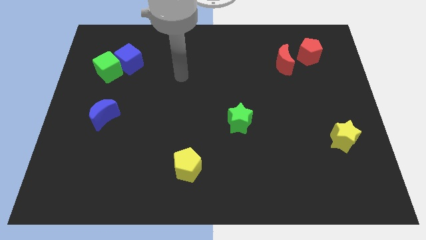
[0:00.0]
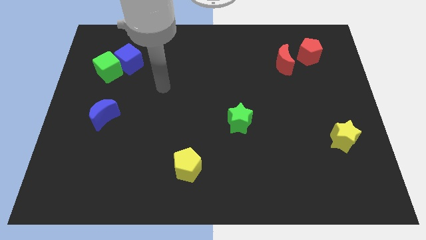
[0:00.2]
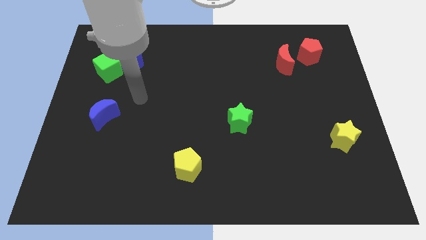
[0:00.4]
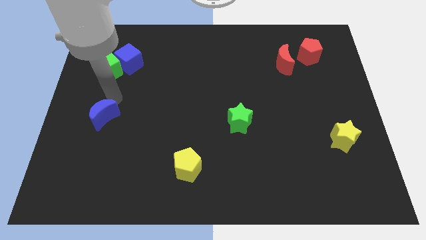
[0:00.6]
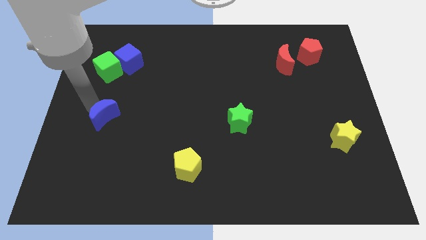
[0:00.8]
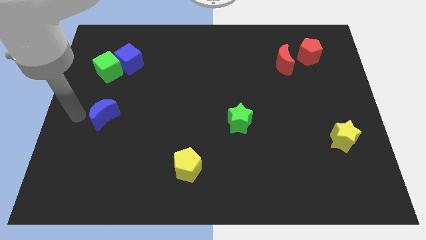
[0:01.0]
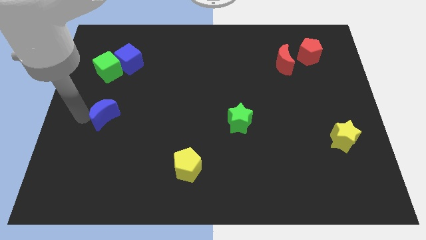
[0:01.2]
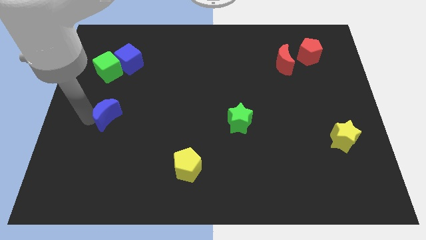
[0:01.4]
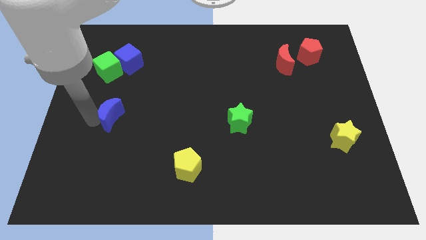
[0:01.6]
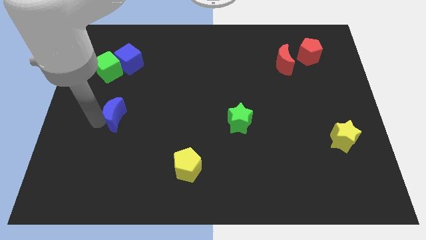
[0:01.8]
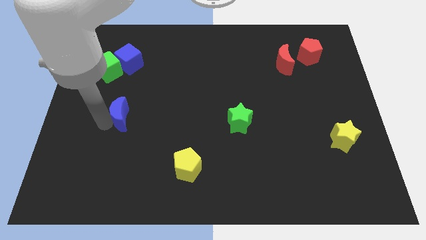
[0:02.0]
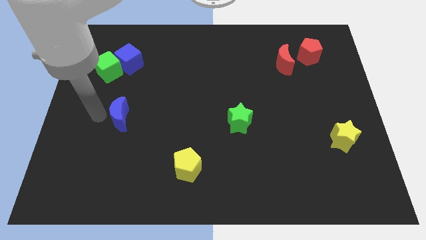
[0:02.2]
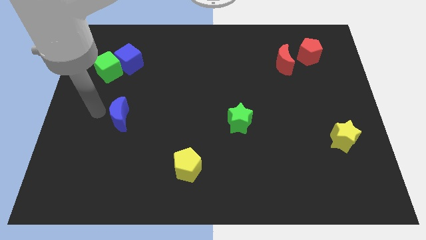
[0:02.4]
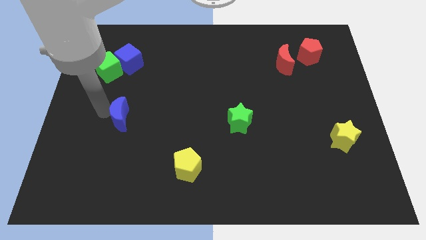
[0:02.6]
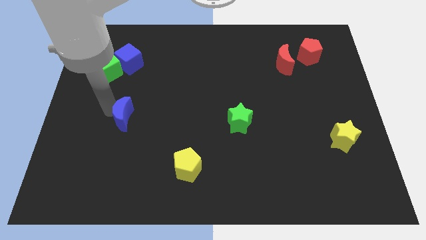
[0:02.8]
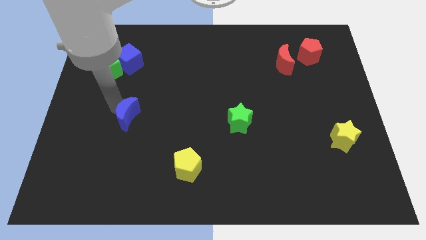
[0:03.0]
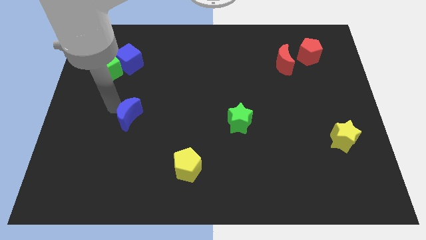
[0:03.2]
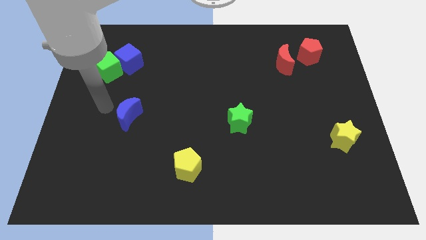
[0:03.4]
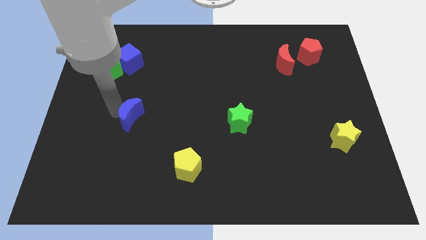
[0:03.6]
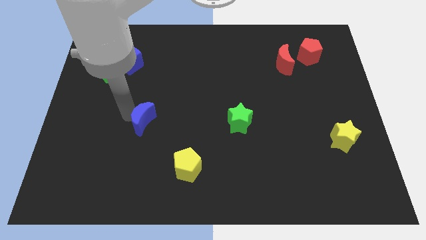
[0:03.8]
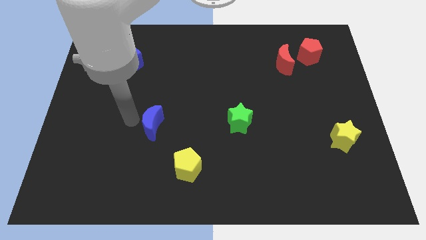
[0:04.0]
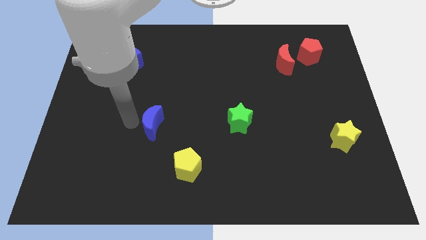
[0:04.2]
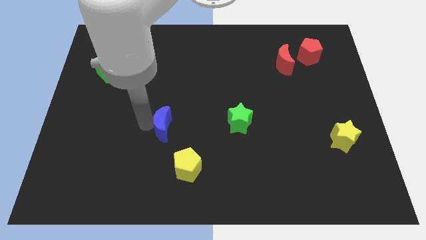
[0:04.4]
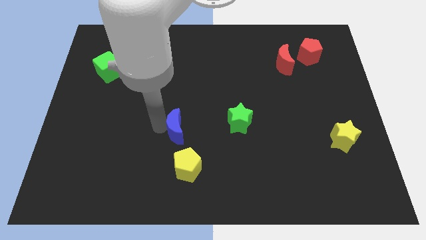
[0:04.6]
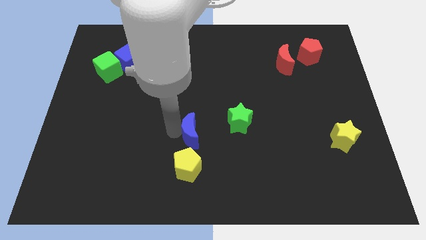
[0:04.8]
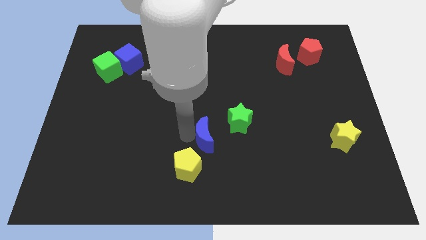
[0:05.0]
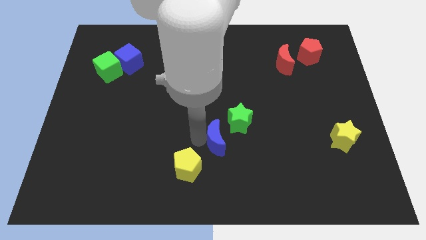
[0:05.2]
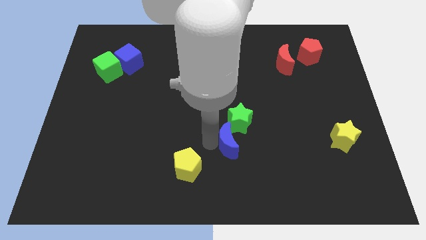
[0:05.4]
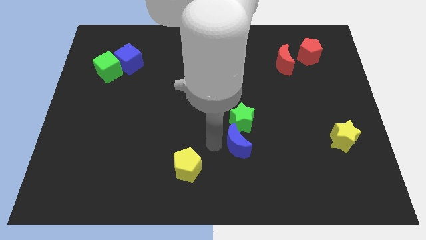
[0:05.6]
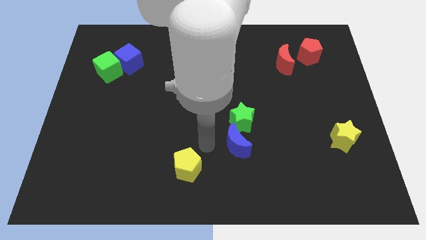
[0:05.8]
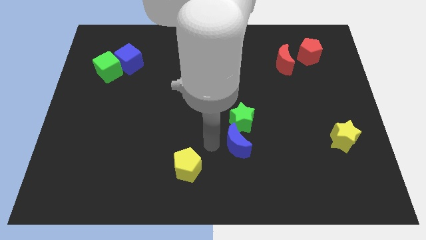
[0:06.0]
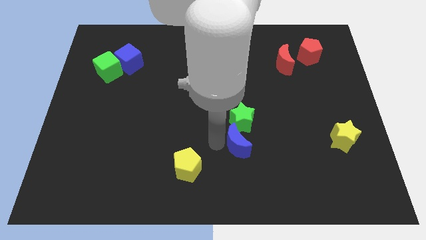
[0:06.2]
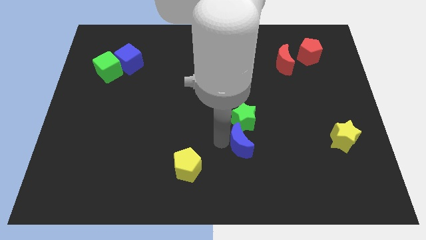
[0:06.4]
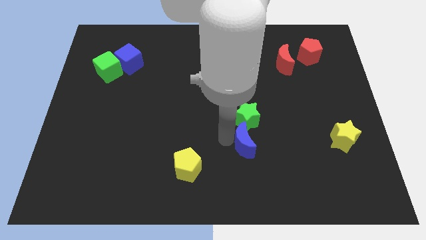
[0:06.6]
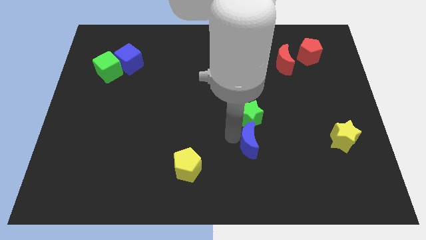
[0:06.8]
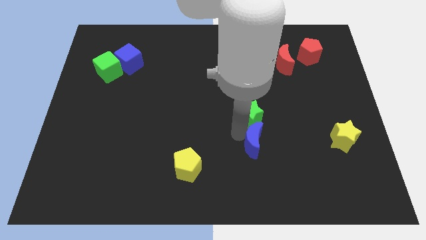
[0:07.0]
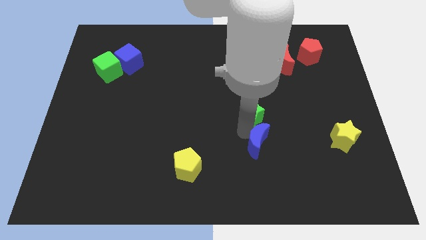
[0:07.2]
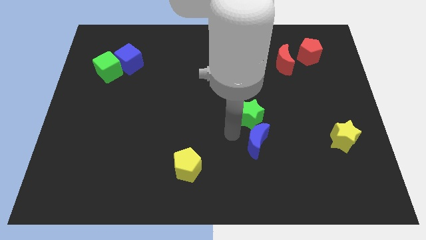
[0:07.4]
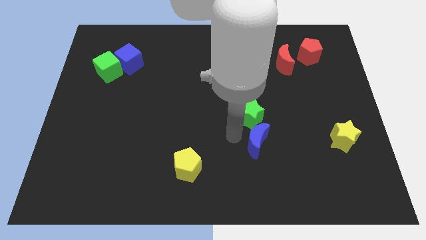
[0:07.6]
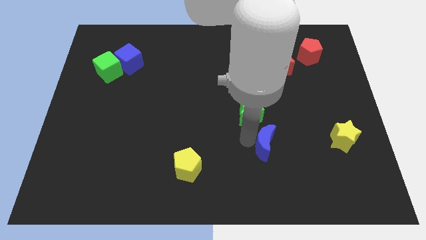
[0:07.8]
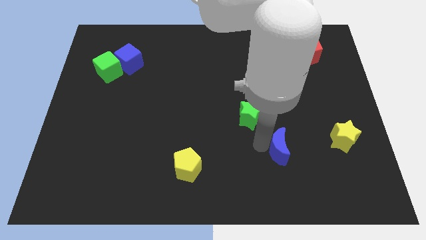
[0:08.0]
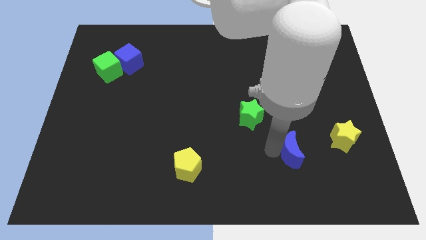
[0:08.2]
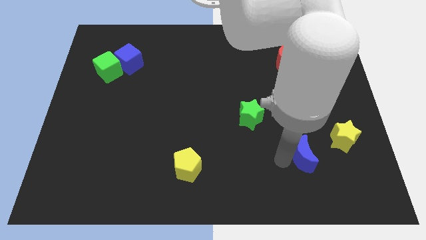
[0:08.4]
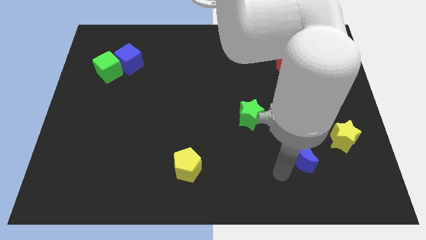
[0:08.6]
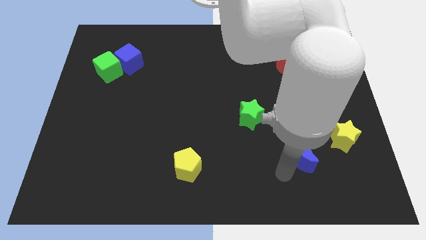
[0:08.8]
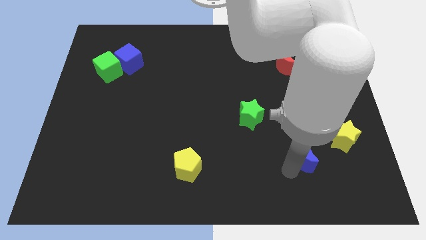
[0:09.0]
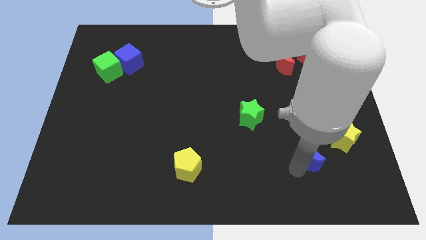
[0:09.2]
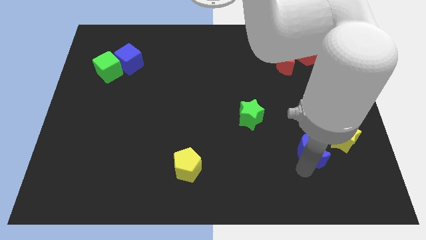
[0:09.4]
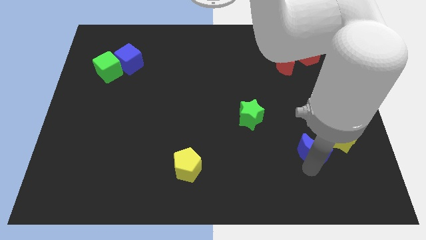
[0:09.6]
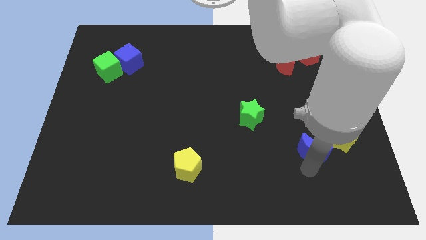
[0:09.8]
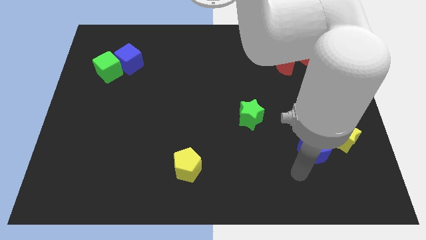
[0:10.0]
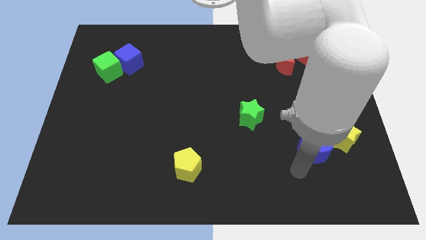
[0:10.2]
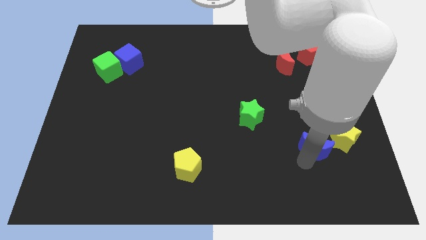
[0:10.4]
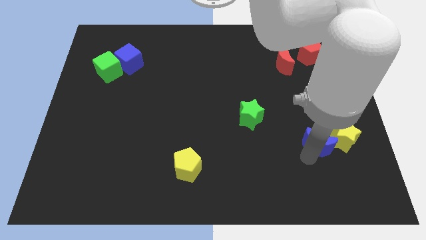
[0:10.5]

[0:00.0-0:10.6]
push the blue moon to the yellow star

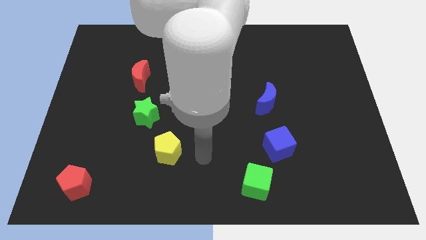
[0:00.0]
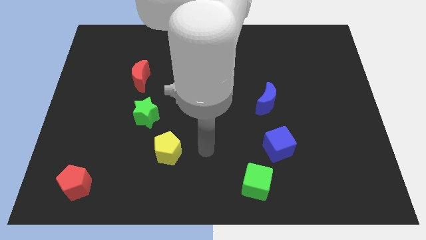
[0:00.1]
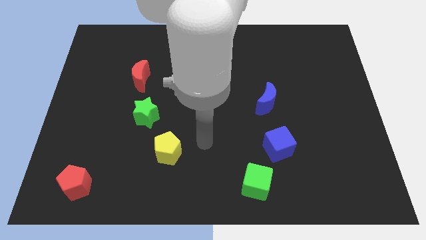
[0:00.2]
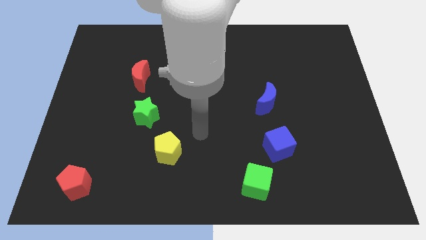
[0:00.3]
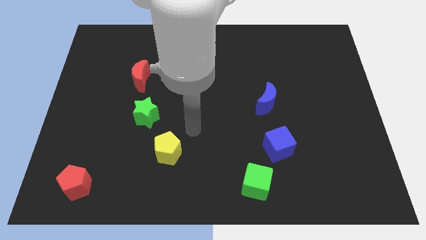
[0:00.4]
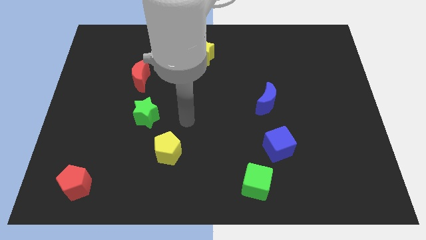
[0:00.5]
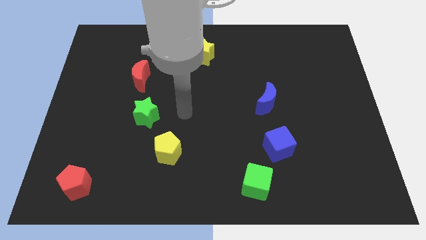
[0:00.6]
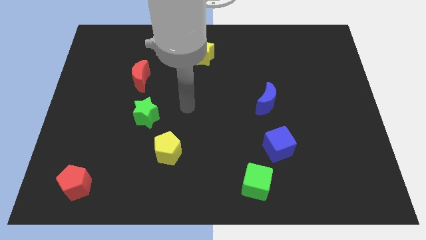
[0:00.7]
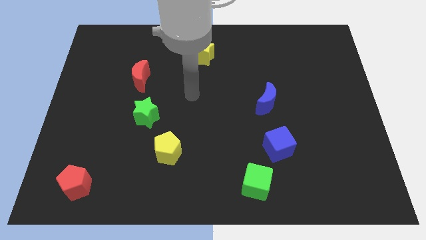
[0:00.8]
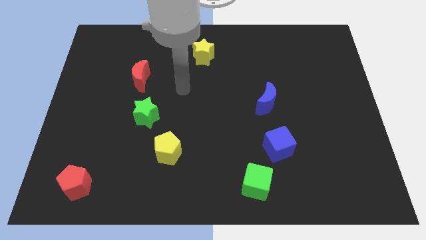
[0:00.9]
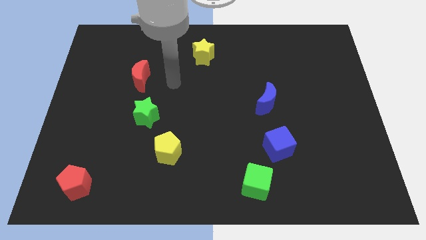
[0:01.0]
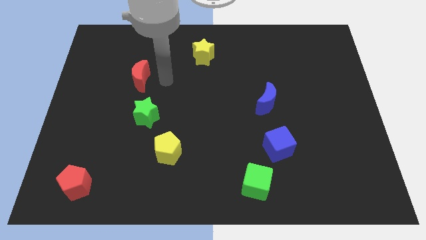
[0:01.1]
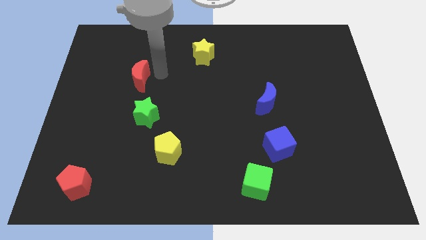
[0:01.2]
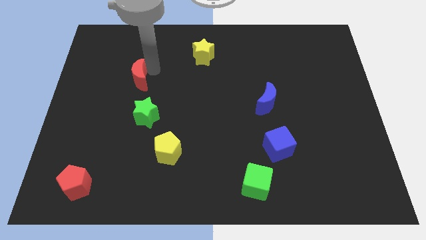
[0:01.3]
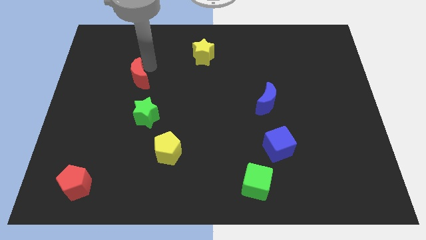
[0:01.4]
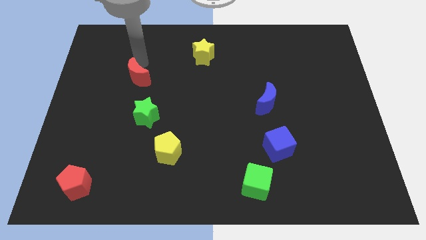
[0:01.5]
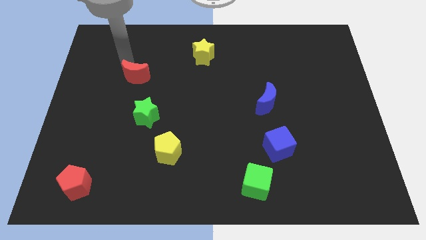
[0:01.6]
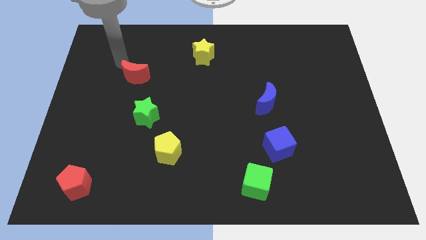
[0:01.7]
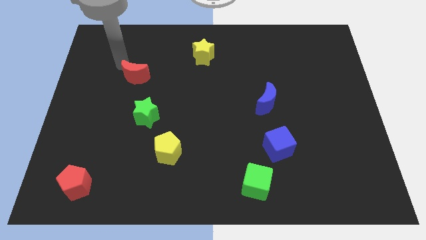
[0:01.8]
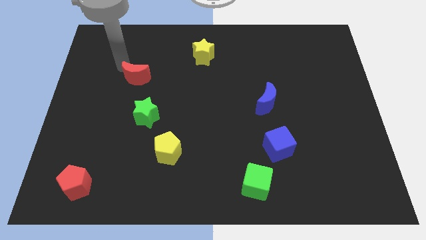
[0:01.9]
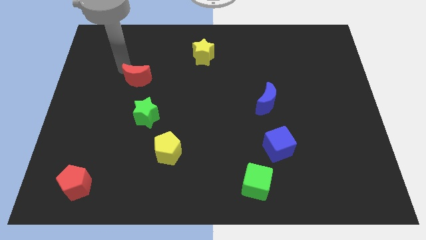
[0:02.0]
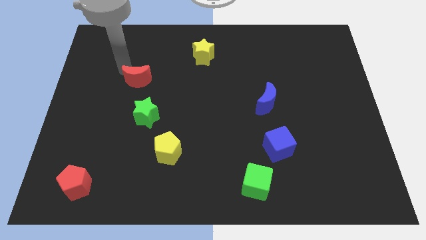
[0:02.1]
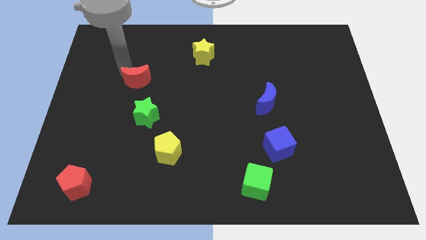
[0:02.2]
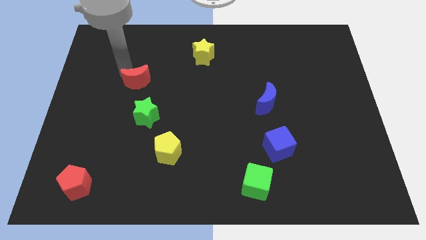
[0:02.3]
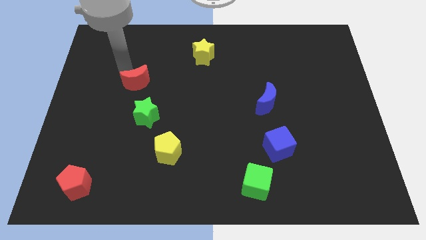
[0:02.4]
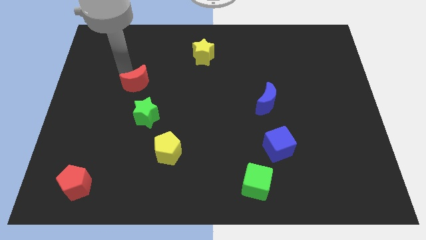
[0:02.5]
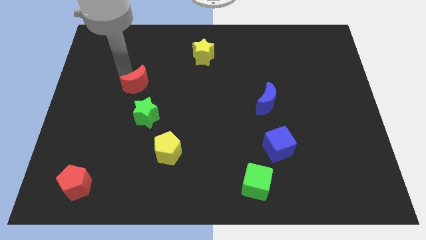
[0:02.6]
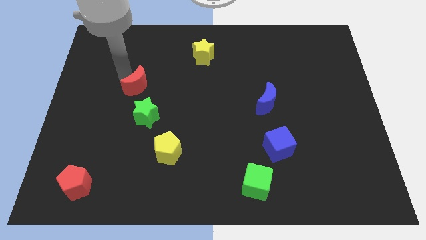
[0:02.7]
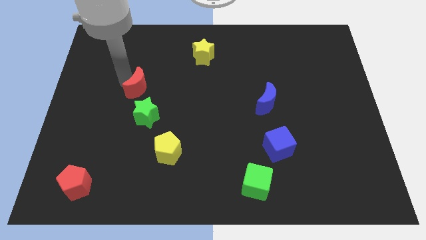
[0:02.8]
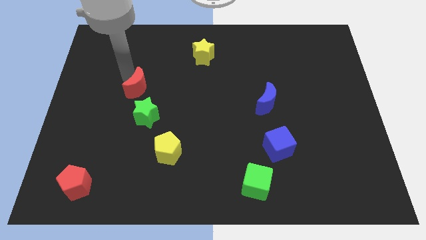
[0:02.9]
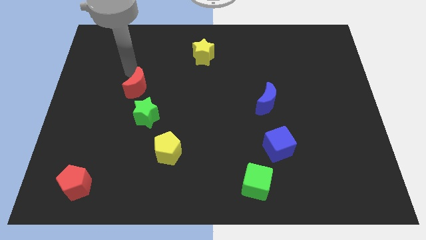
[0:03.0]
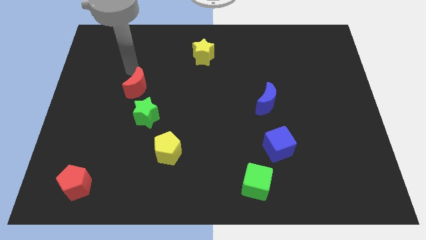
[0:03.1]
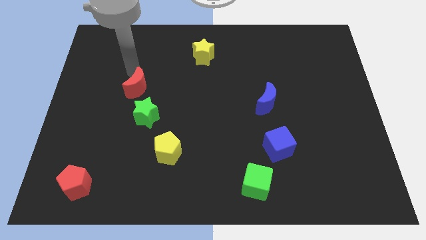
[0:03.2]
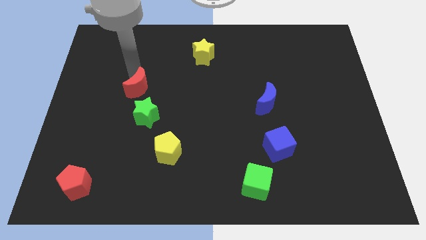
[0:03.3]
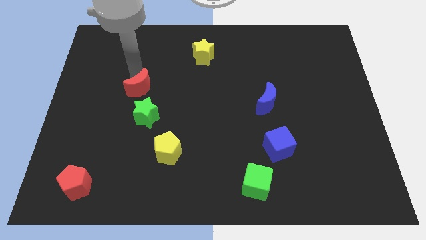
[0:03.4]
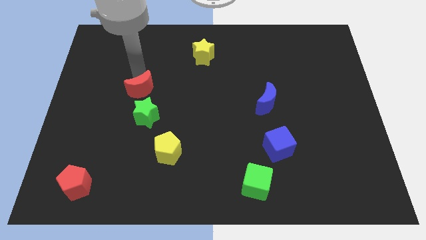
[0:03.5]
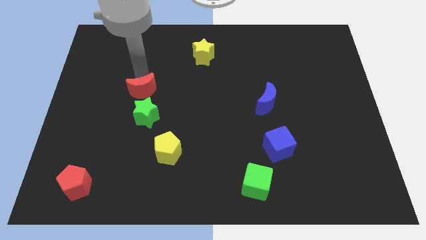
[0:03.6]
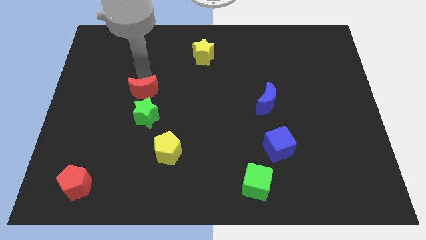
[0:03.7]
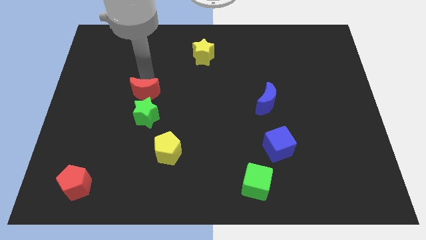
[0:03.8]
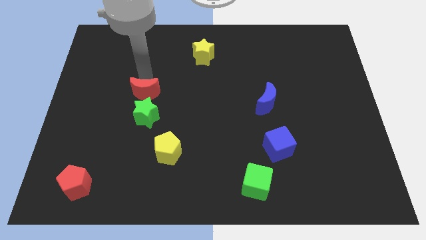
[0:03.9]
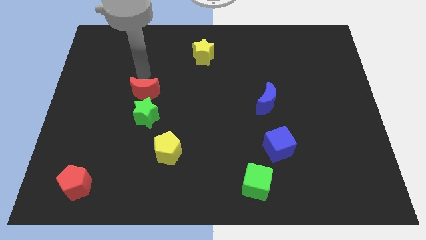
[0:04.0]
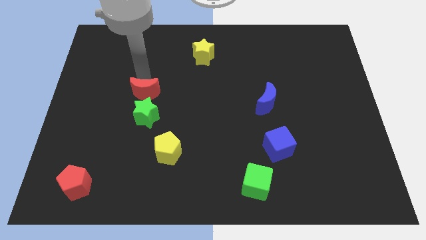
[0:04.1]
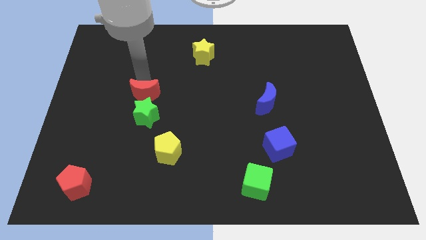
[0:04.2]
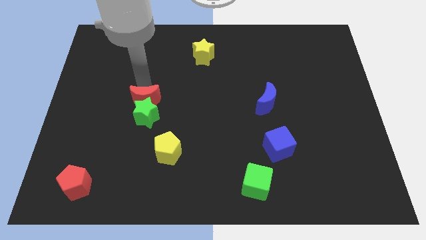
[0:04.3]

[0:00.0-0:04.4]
move the red moon next to the green star
